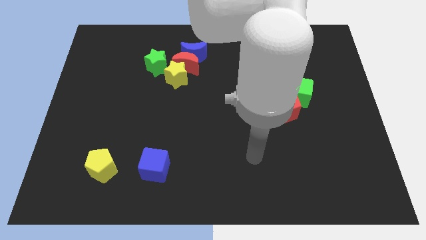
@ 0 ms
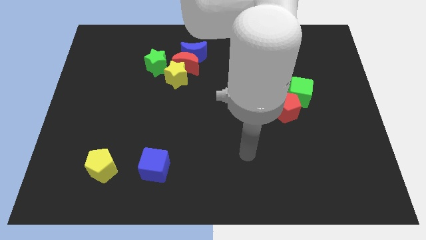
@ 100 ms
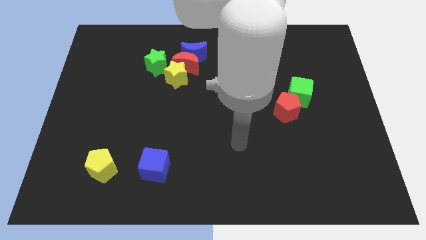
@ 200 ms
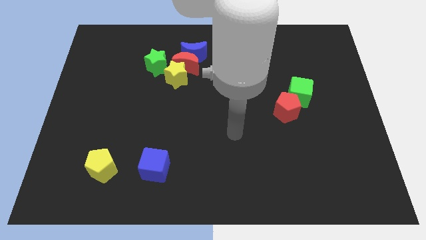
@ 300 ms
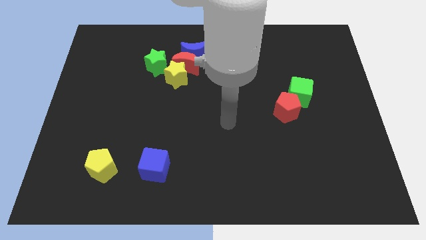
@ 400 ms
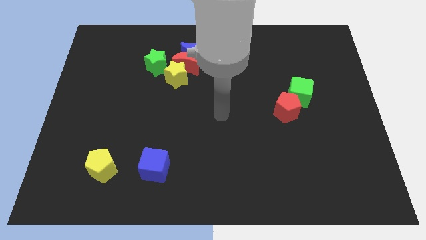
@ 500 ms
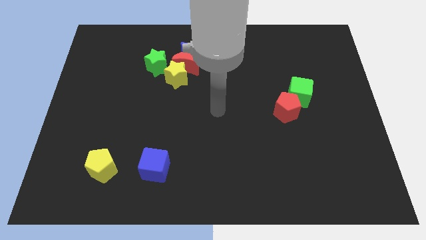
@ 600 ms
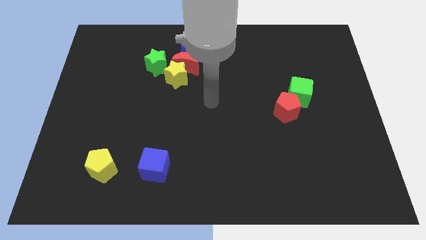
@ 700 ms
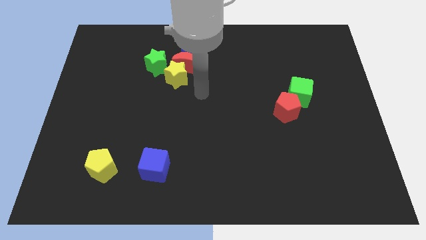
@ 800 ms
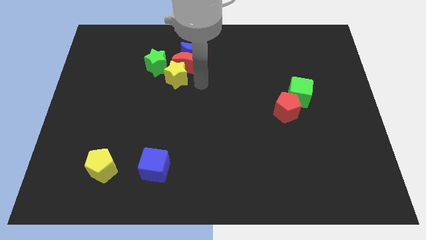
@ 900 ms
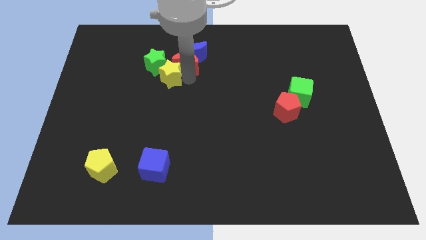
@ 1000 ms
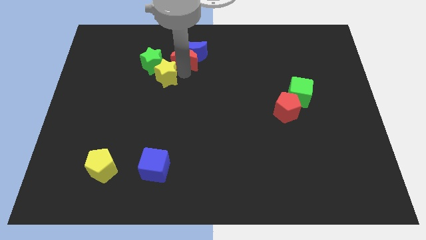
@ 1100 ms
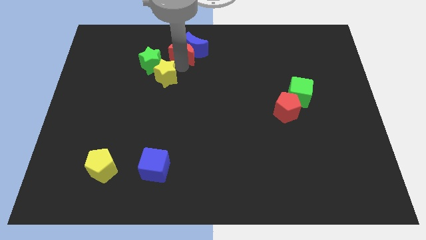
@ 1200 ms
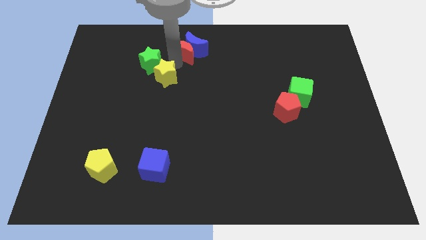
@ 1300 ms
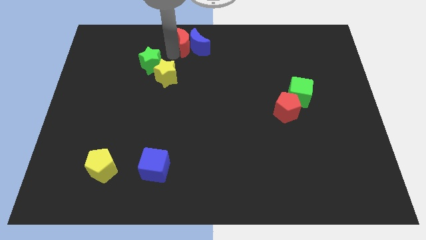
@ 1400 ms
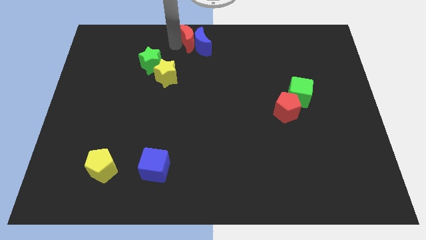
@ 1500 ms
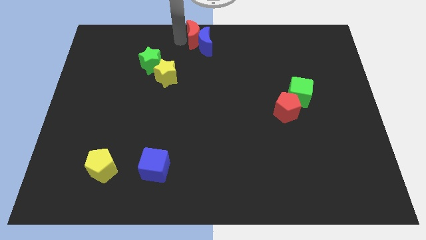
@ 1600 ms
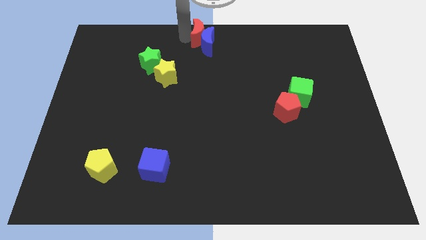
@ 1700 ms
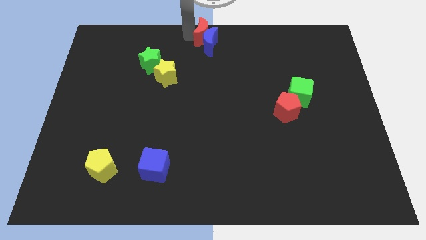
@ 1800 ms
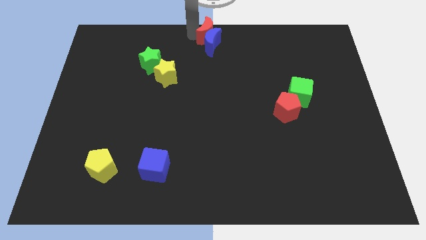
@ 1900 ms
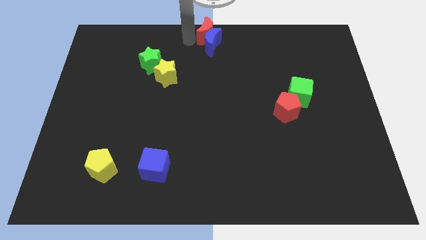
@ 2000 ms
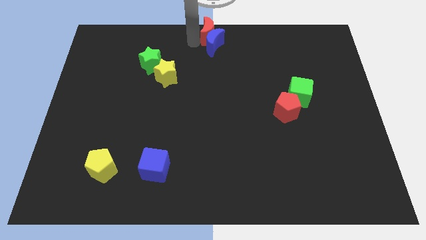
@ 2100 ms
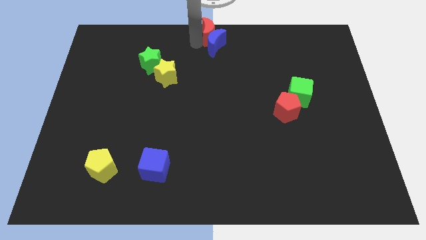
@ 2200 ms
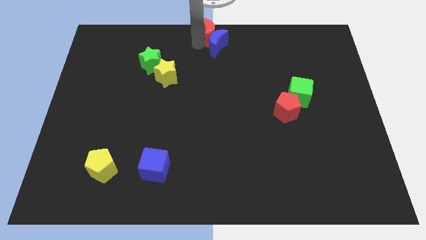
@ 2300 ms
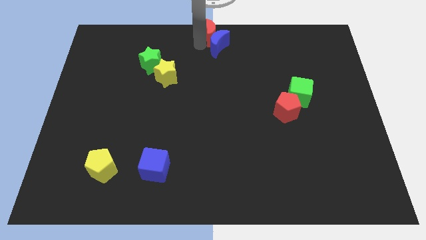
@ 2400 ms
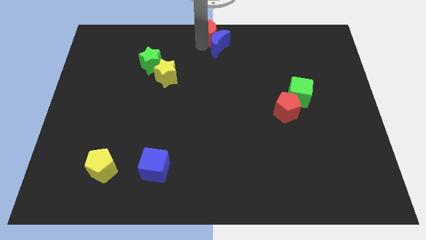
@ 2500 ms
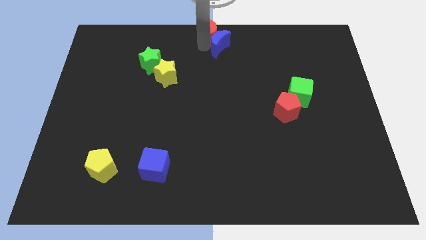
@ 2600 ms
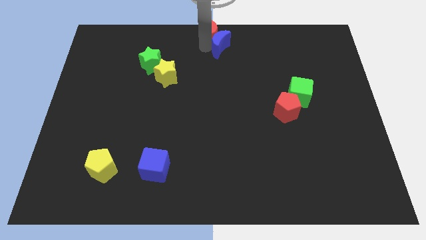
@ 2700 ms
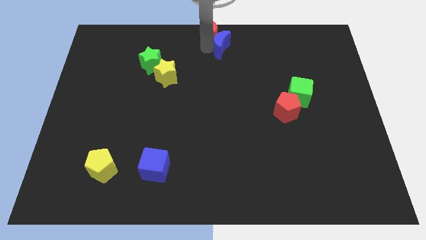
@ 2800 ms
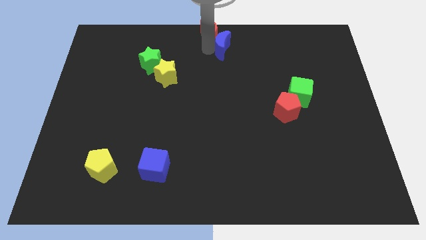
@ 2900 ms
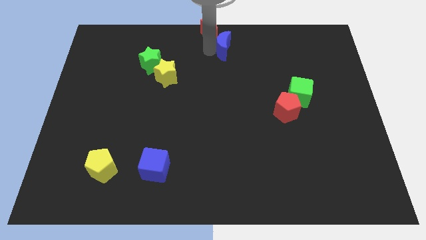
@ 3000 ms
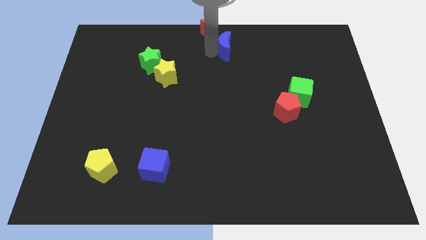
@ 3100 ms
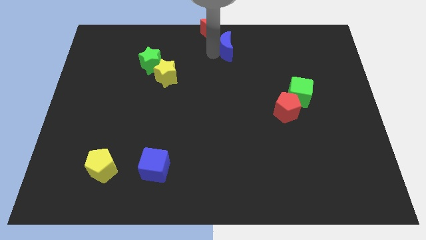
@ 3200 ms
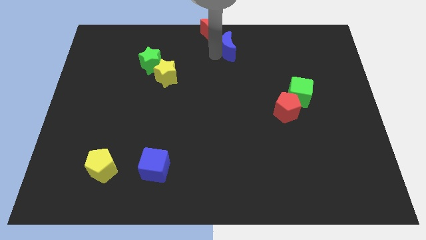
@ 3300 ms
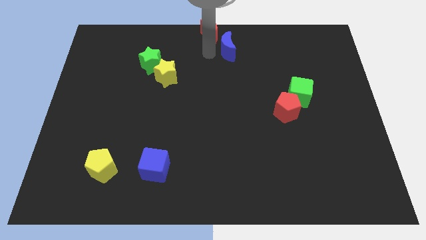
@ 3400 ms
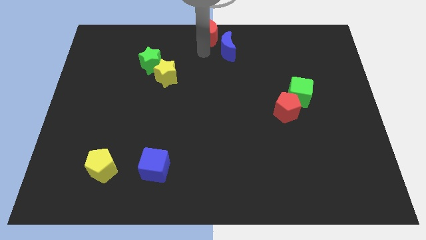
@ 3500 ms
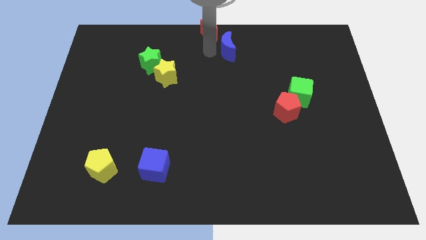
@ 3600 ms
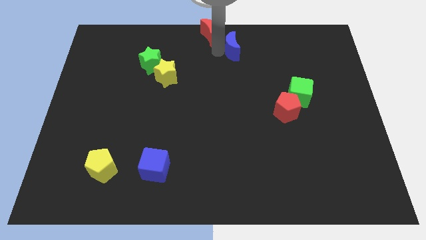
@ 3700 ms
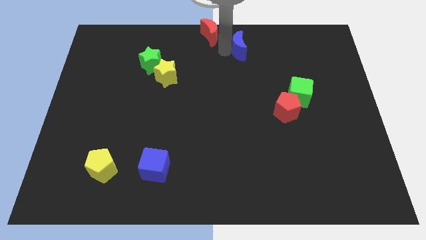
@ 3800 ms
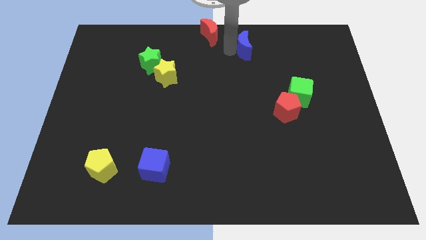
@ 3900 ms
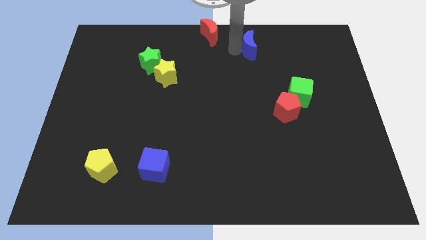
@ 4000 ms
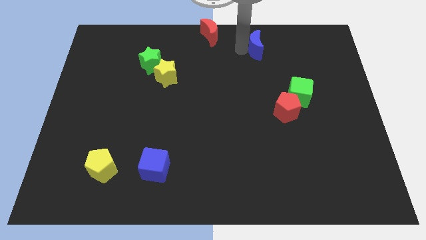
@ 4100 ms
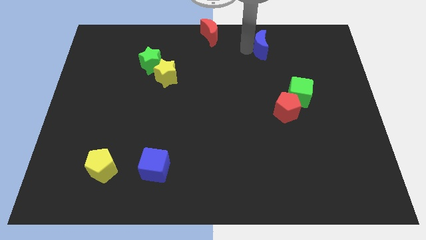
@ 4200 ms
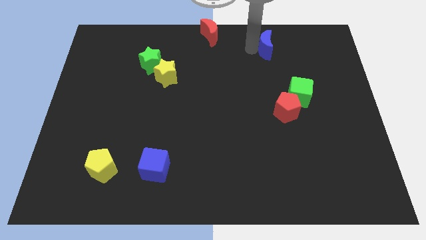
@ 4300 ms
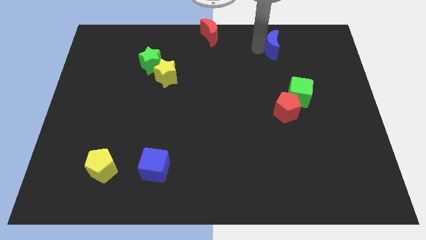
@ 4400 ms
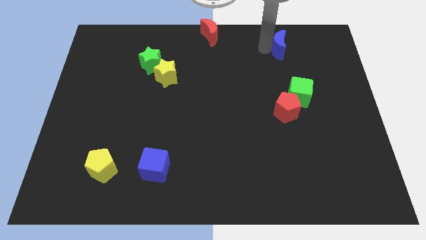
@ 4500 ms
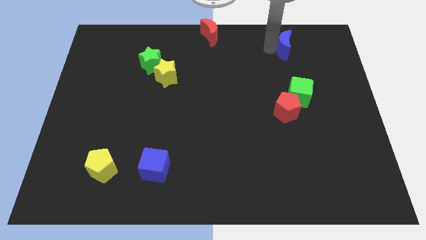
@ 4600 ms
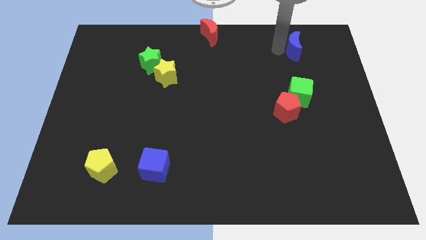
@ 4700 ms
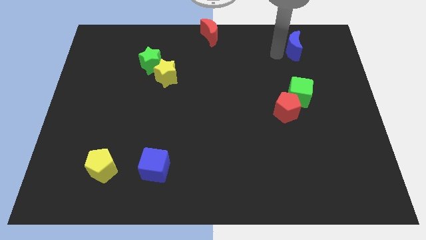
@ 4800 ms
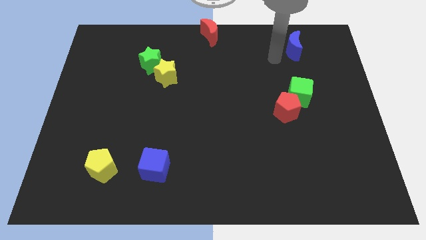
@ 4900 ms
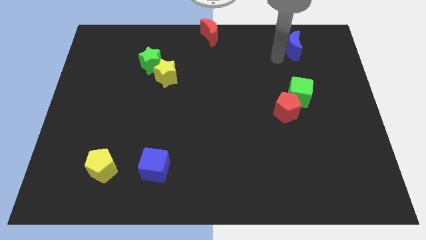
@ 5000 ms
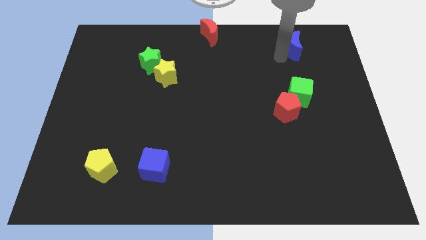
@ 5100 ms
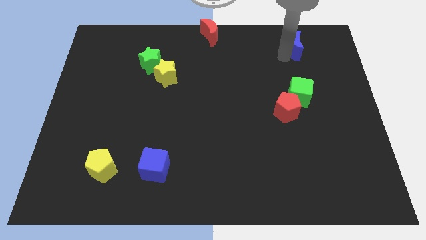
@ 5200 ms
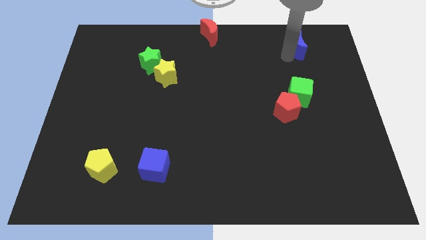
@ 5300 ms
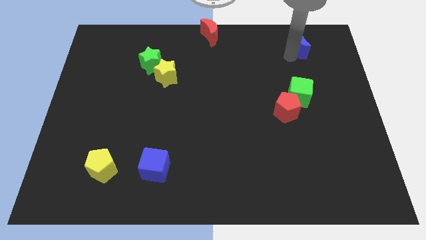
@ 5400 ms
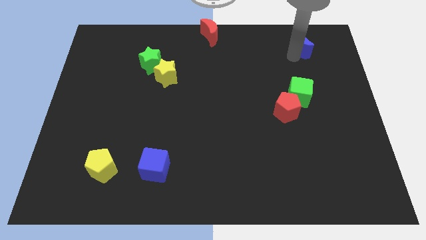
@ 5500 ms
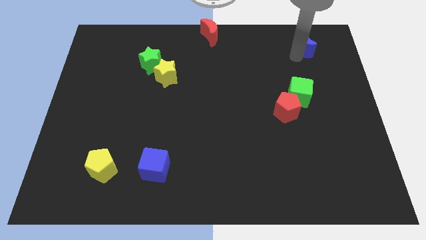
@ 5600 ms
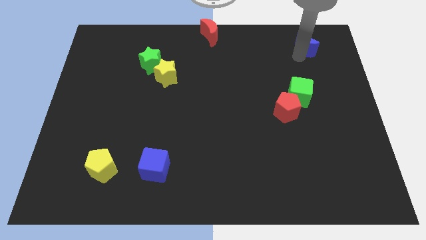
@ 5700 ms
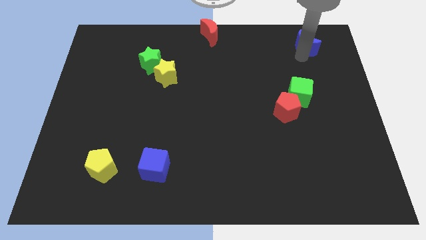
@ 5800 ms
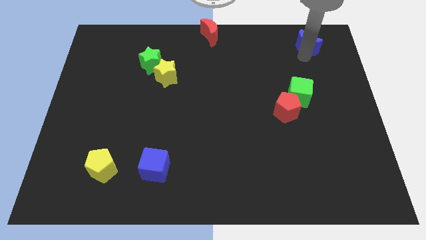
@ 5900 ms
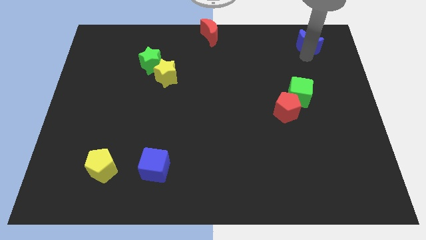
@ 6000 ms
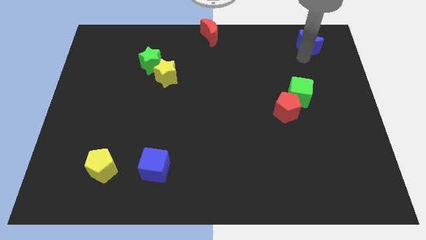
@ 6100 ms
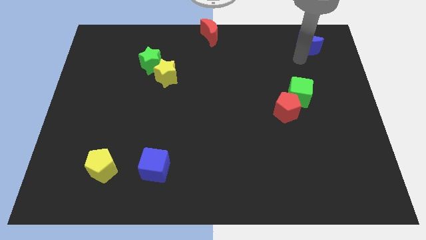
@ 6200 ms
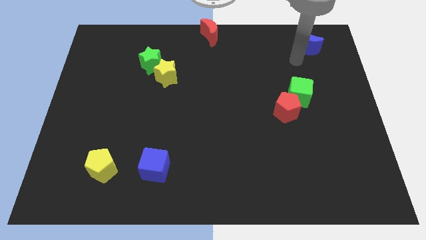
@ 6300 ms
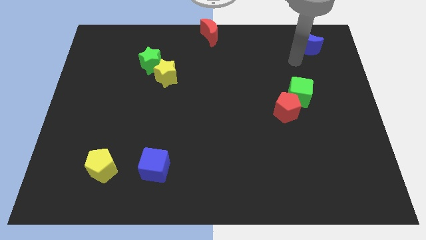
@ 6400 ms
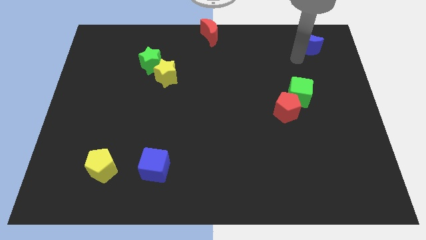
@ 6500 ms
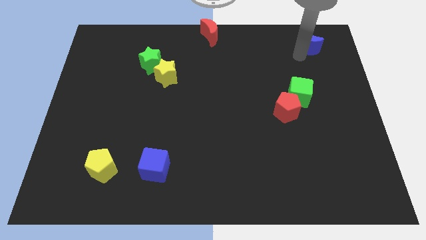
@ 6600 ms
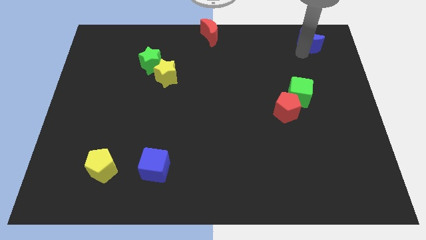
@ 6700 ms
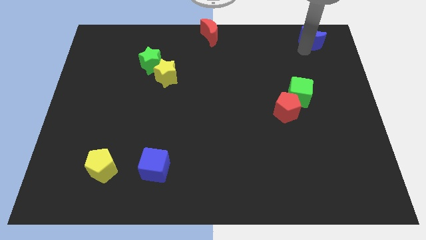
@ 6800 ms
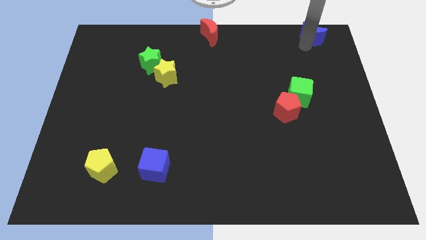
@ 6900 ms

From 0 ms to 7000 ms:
put the blue moon to the top right
